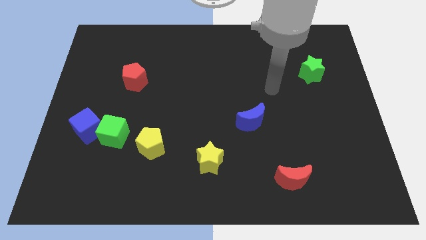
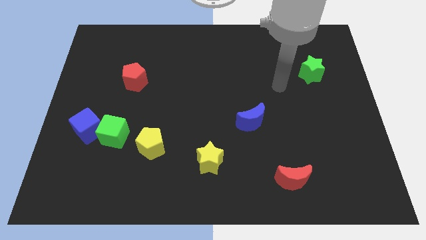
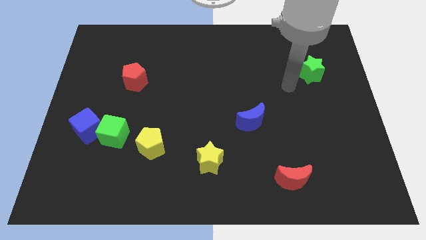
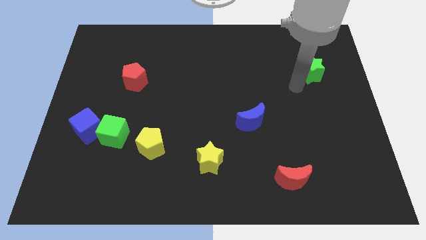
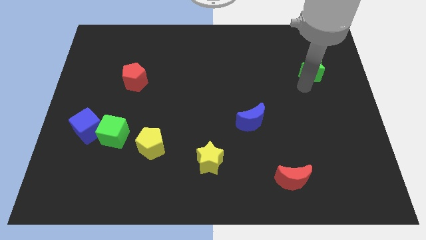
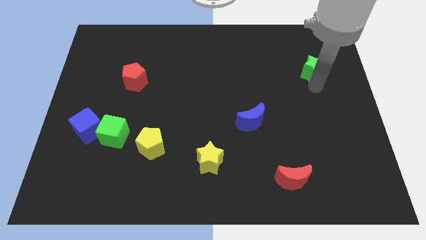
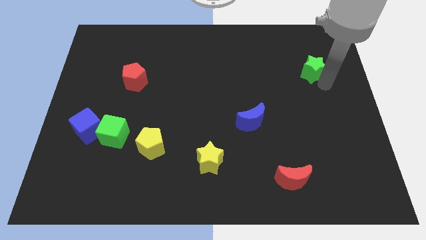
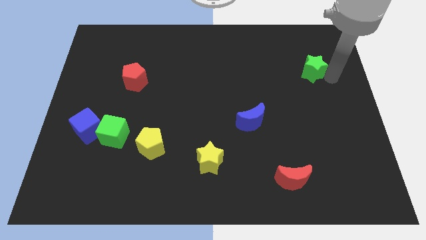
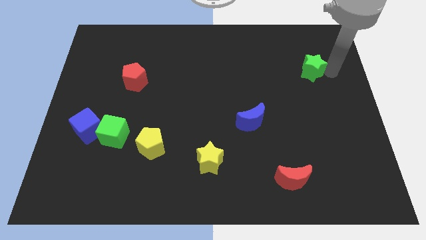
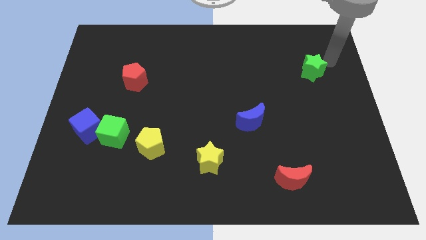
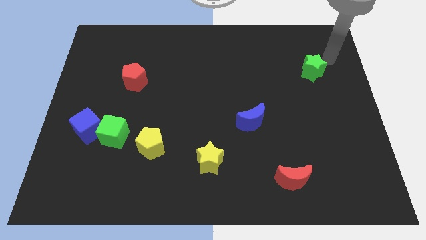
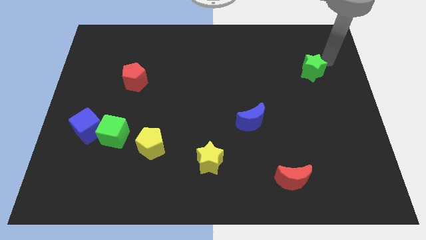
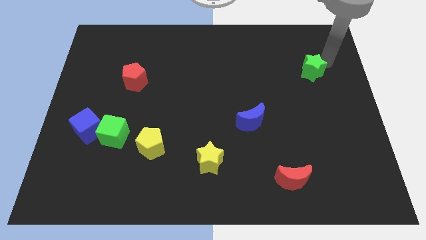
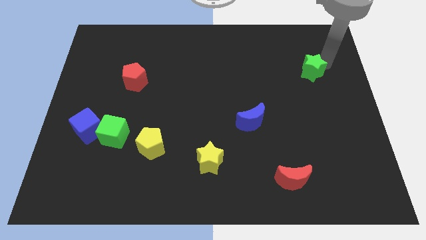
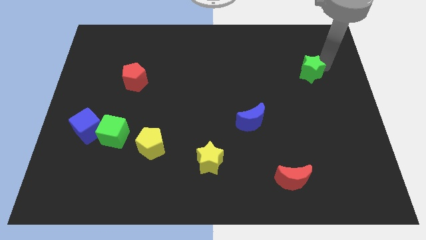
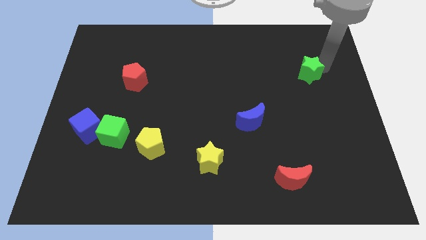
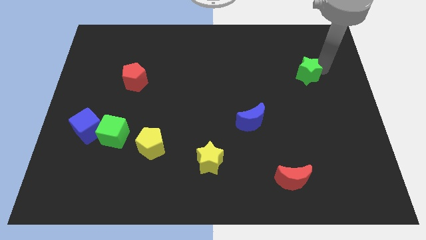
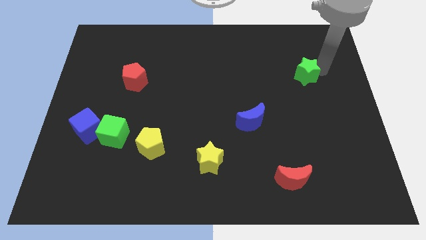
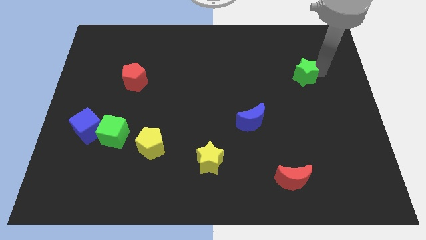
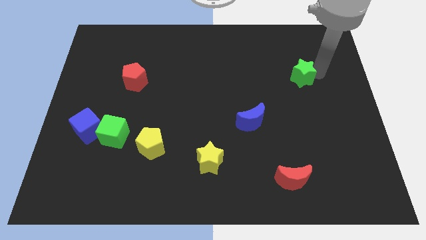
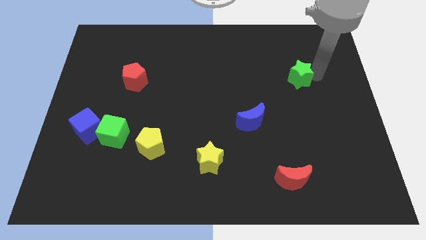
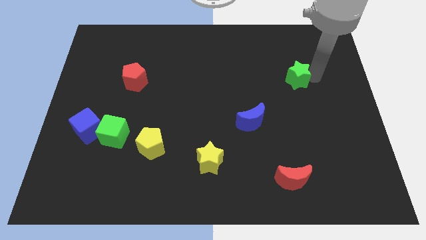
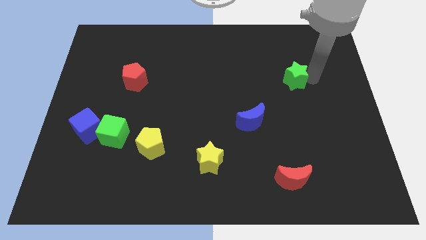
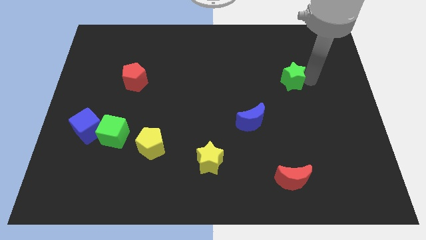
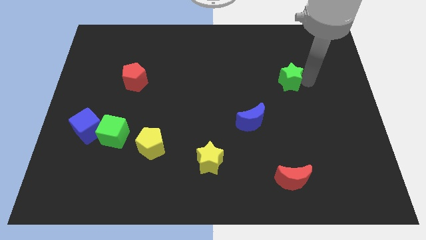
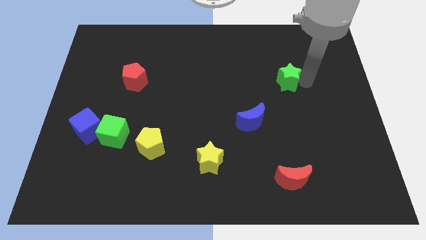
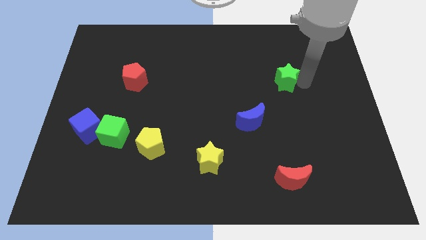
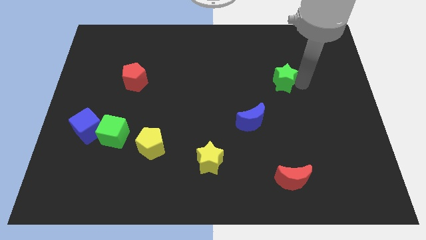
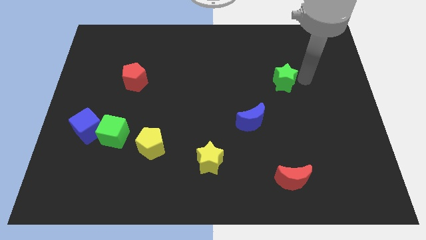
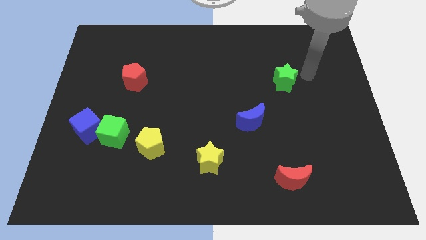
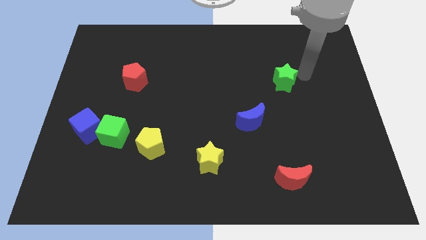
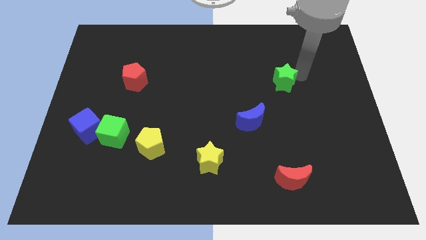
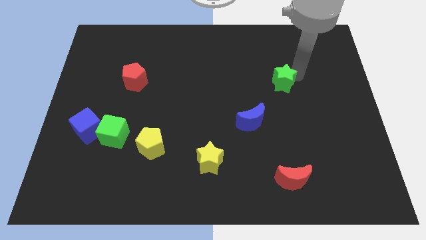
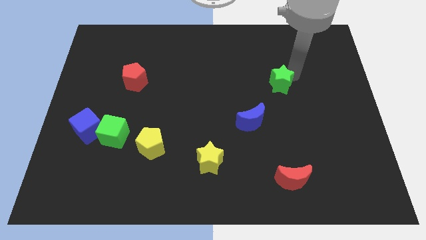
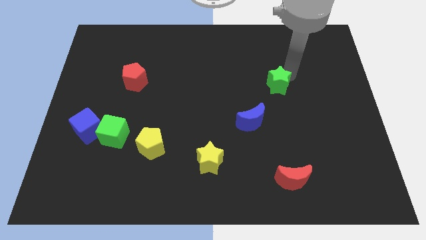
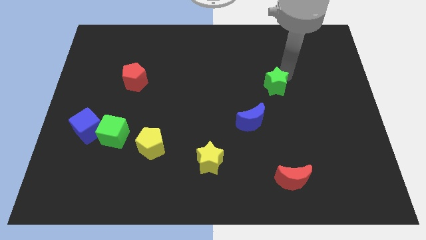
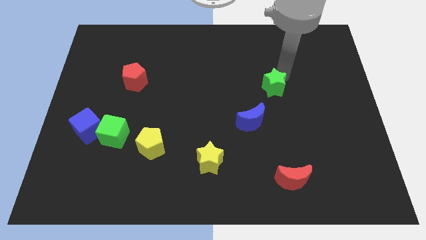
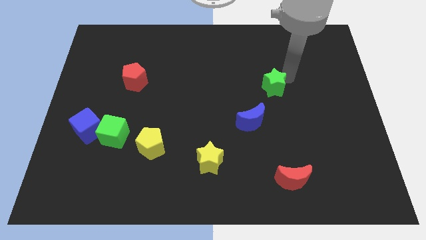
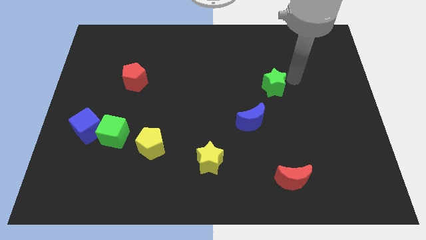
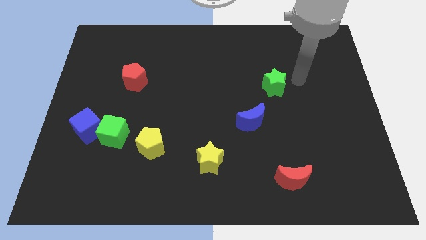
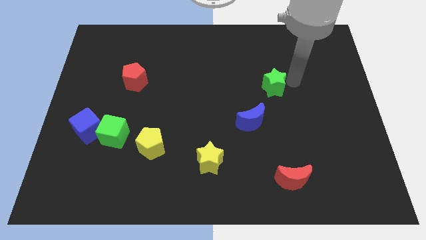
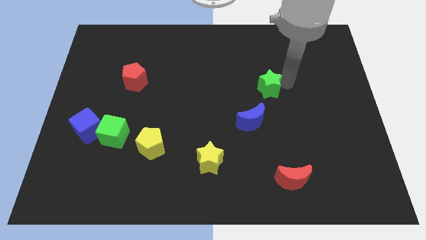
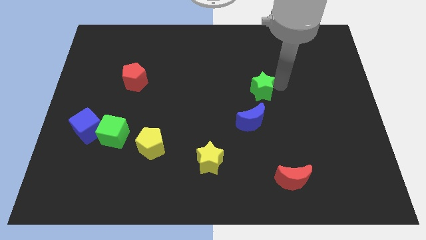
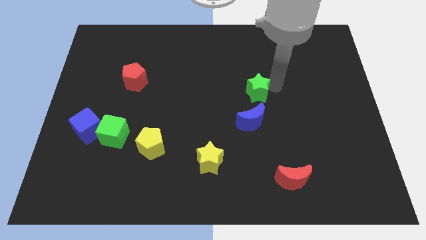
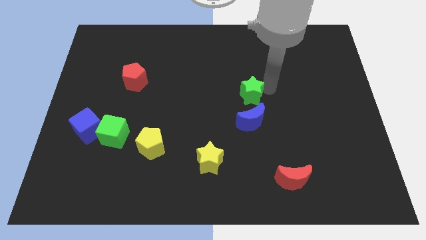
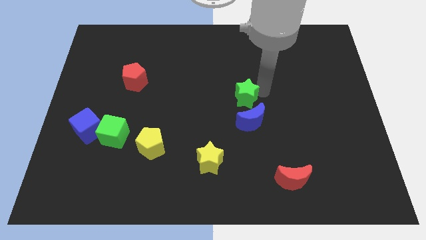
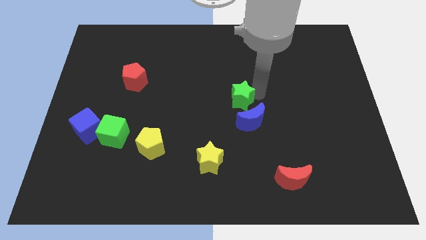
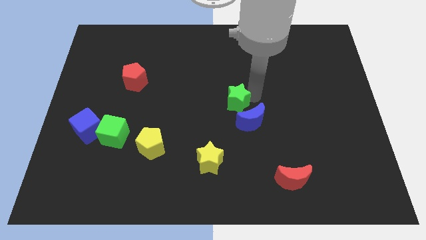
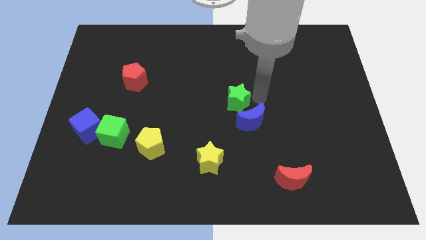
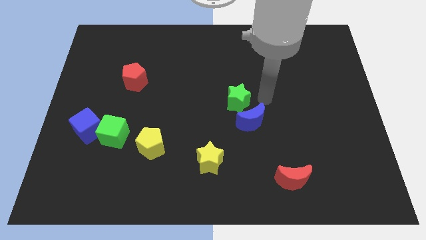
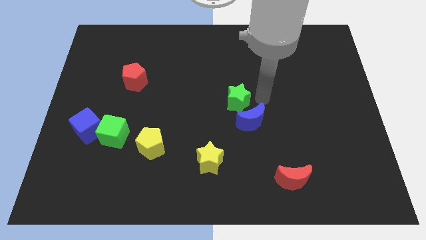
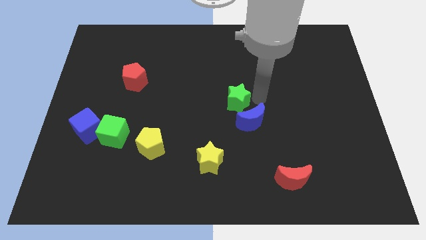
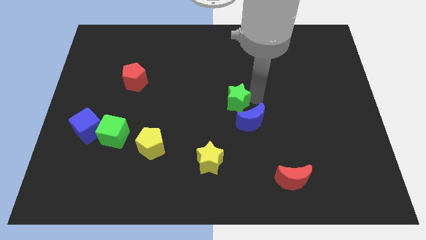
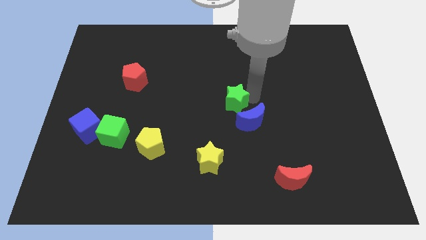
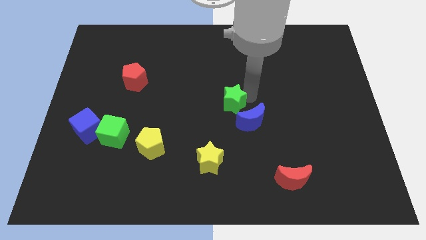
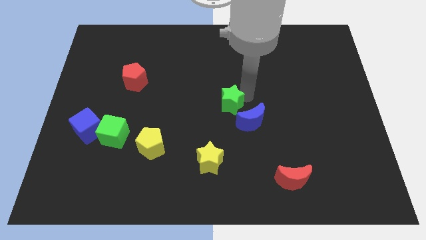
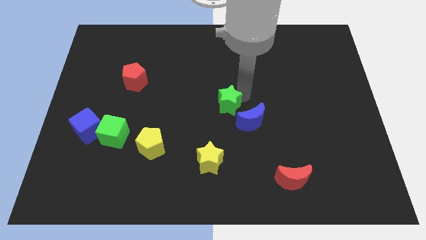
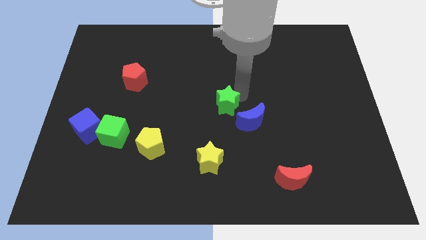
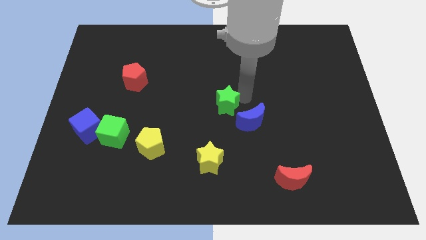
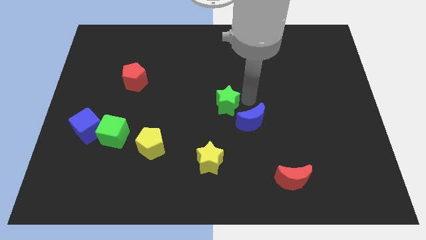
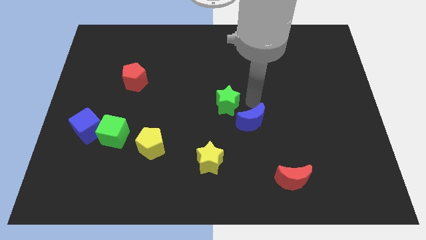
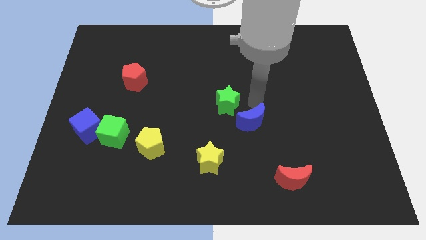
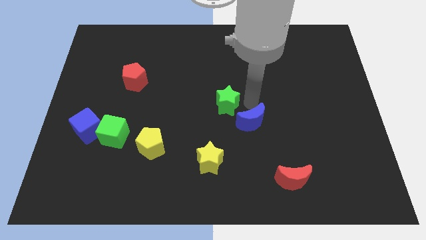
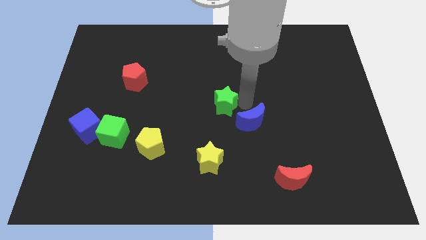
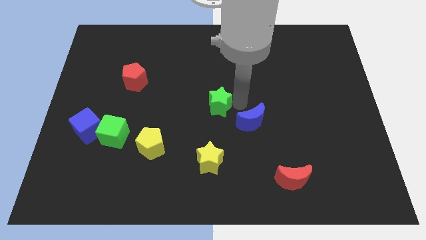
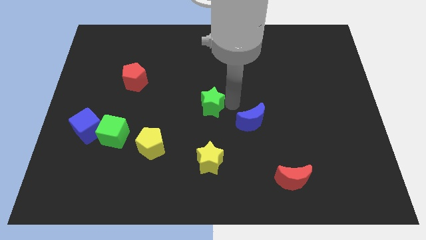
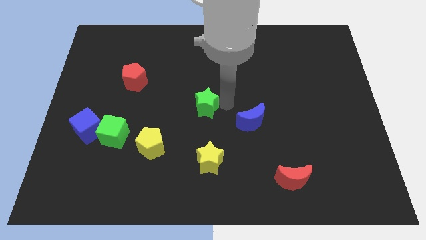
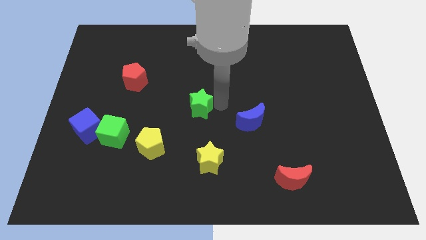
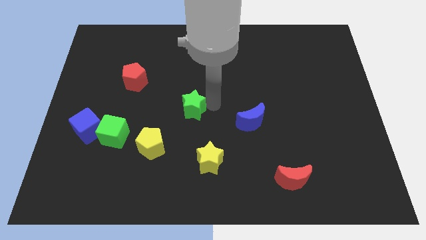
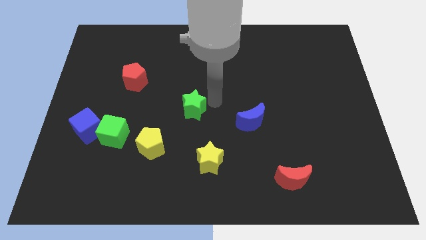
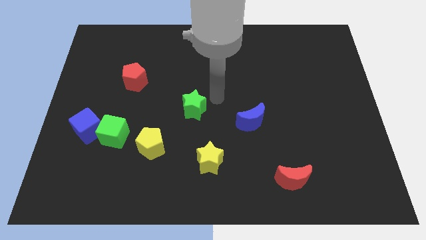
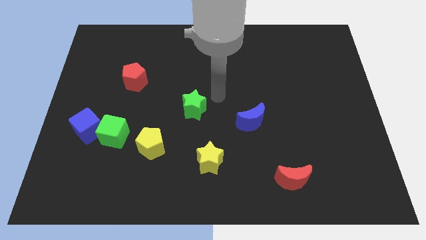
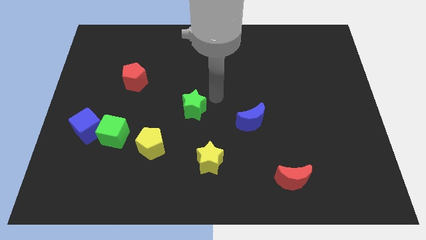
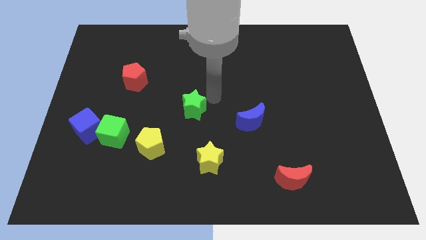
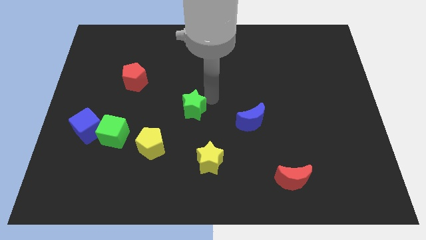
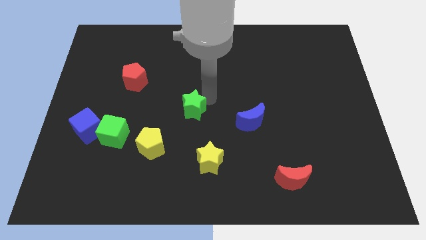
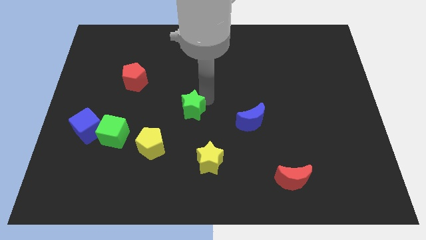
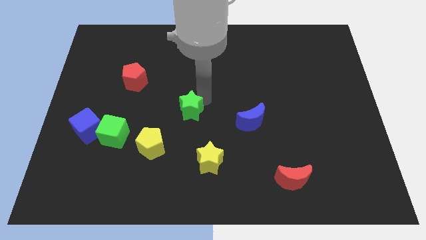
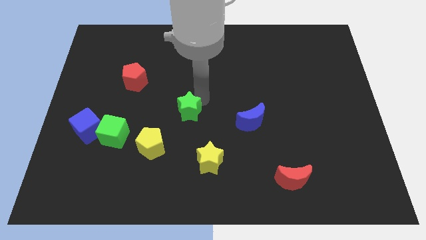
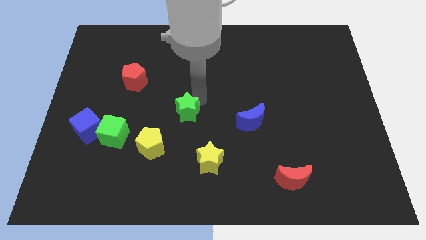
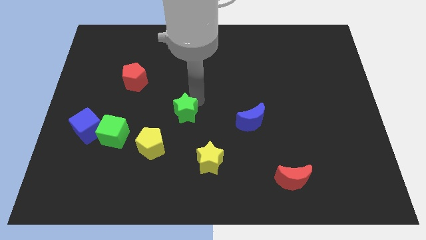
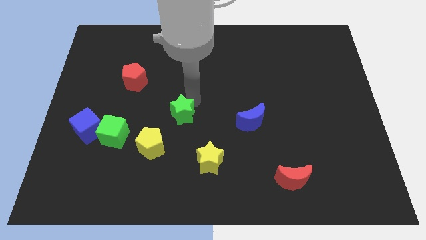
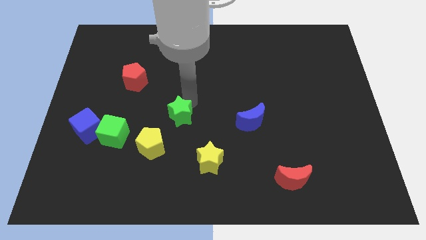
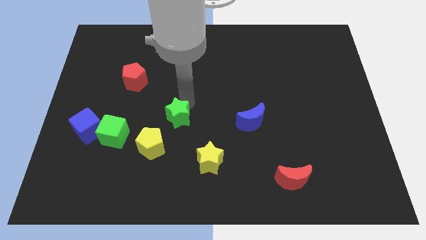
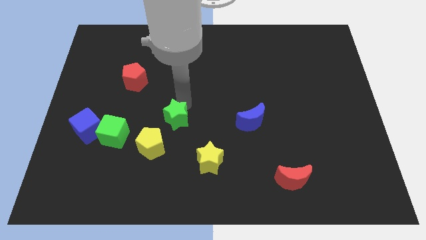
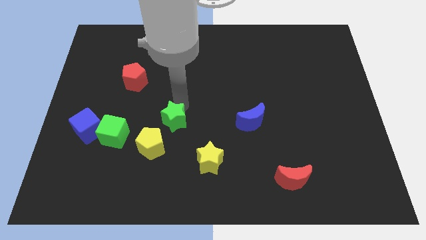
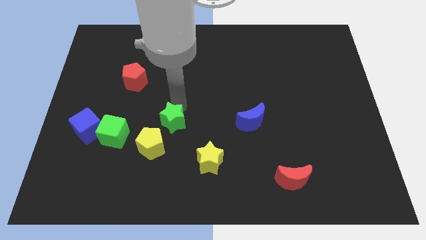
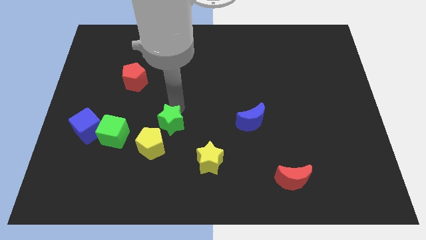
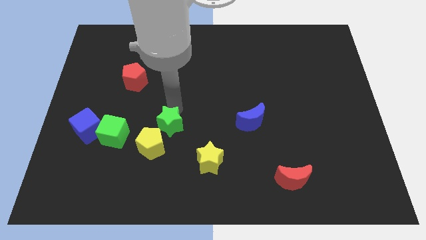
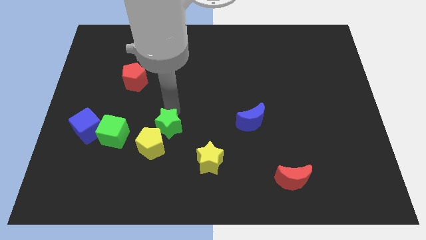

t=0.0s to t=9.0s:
push the green star to the yellow pentagon
